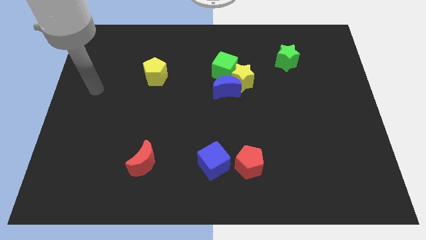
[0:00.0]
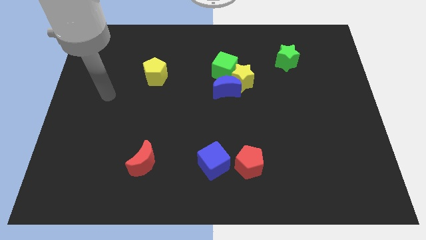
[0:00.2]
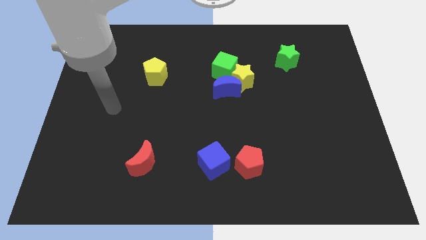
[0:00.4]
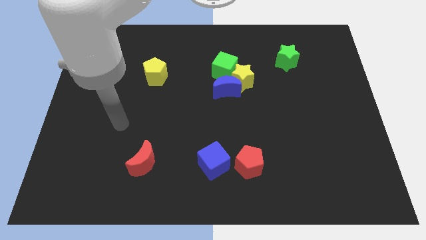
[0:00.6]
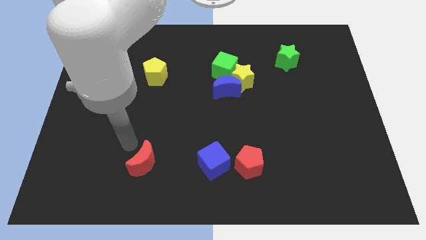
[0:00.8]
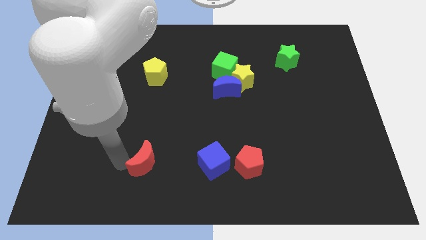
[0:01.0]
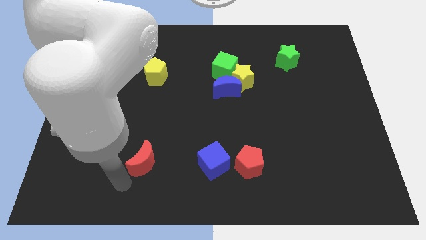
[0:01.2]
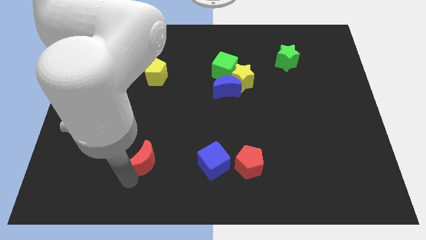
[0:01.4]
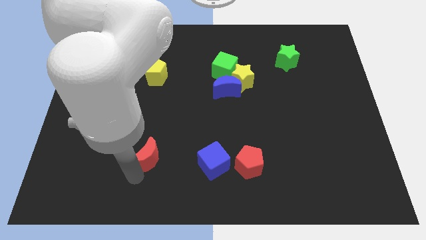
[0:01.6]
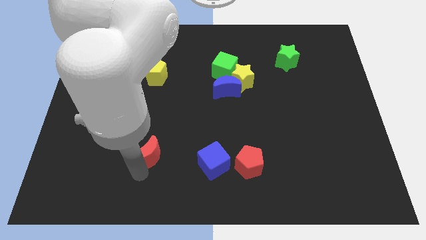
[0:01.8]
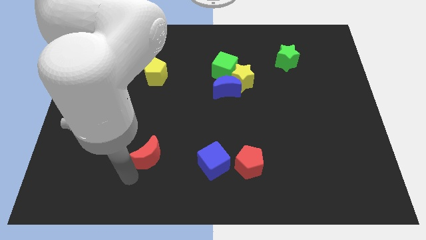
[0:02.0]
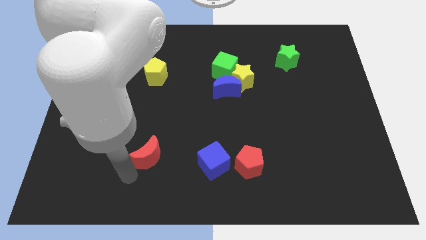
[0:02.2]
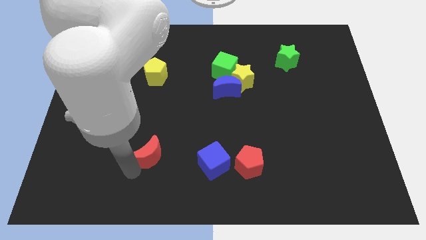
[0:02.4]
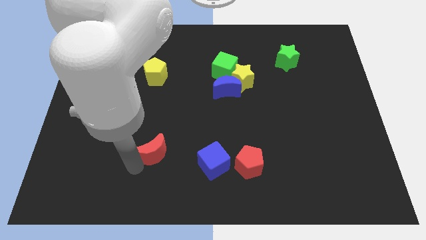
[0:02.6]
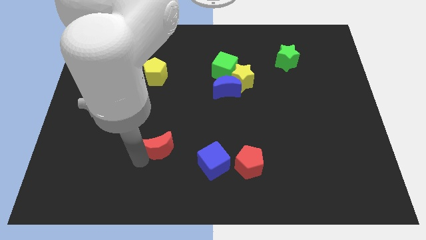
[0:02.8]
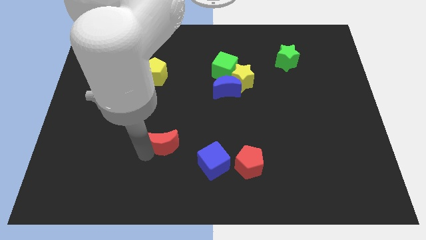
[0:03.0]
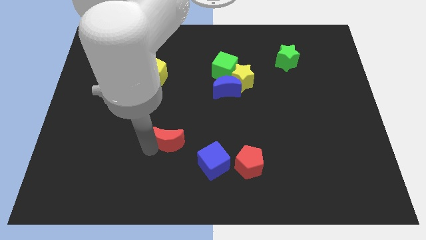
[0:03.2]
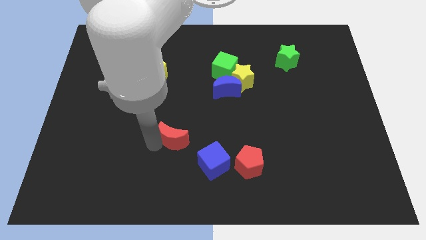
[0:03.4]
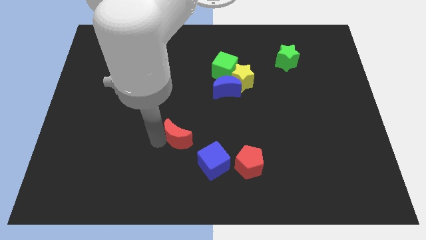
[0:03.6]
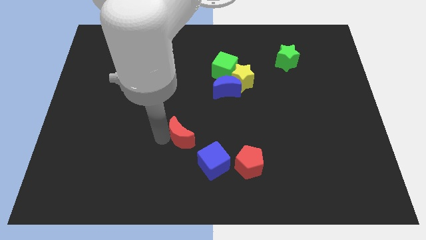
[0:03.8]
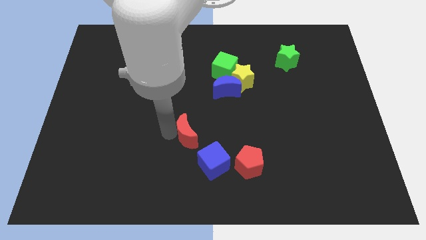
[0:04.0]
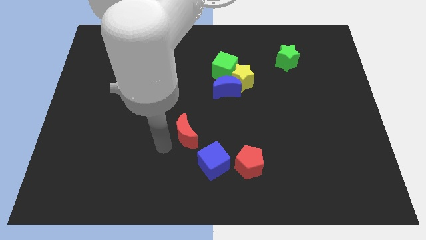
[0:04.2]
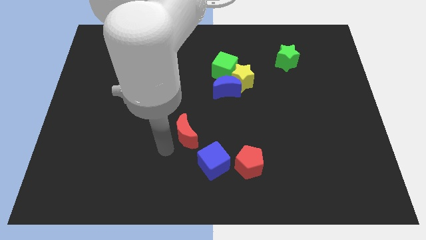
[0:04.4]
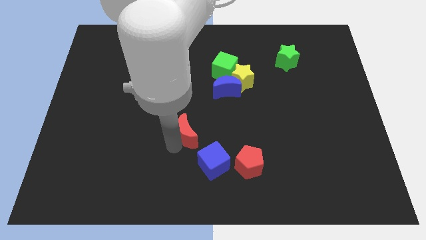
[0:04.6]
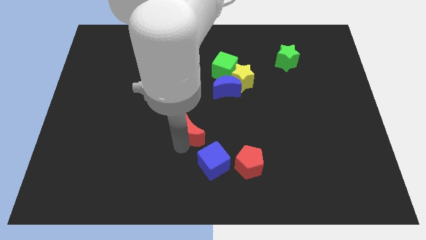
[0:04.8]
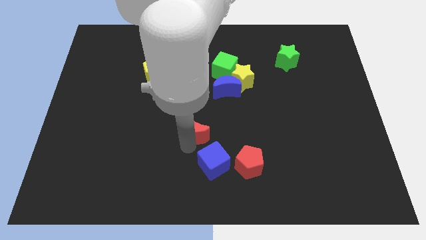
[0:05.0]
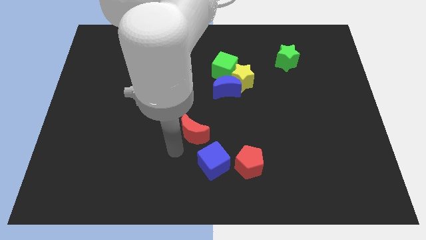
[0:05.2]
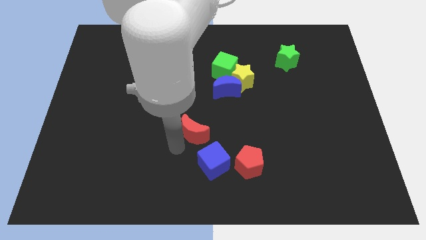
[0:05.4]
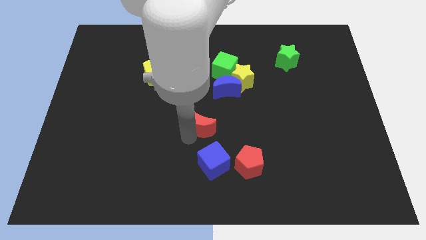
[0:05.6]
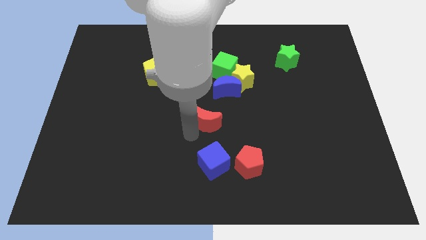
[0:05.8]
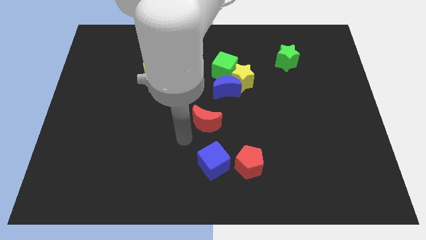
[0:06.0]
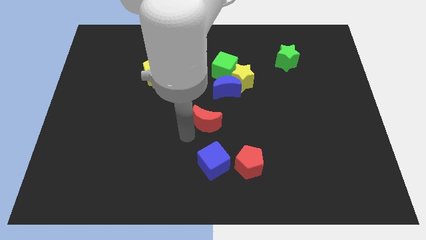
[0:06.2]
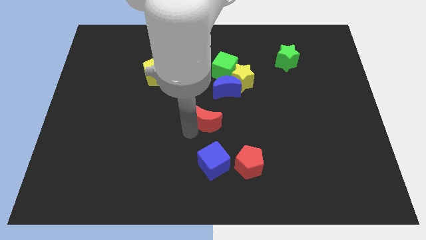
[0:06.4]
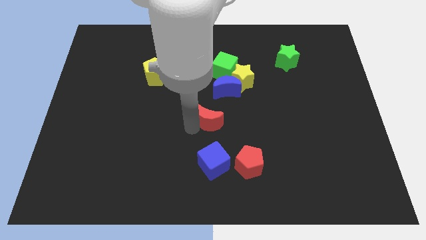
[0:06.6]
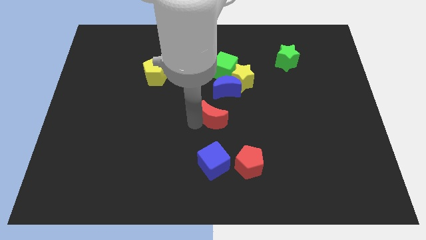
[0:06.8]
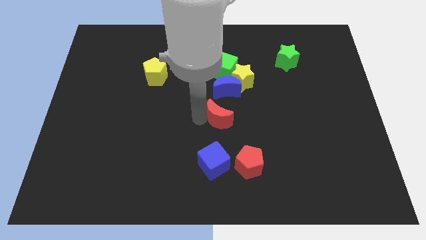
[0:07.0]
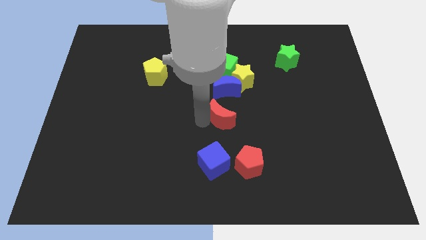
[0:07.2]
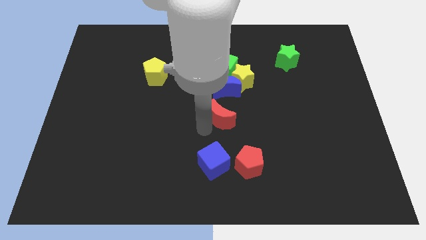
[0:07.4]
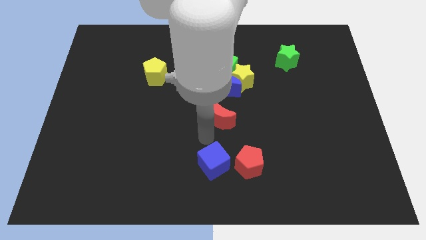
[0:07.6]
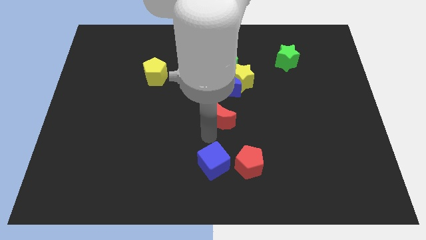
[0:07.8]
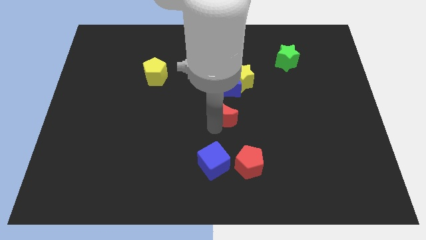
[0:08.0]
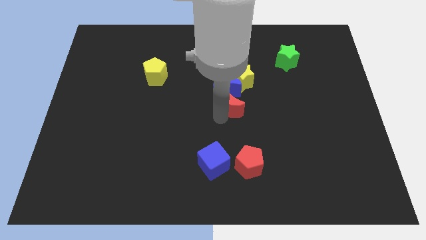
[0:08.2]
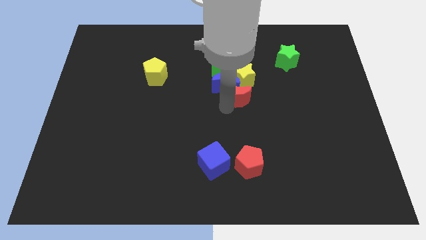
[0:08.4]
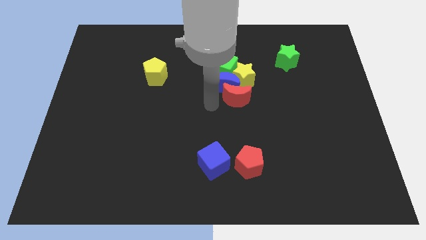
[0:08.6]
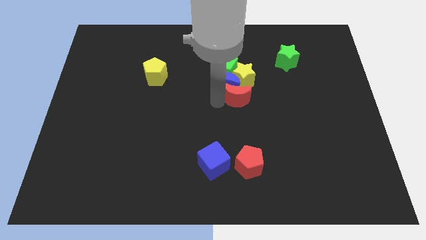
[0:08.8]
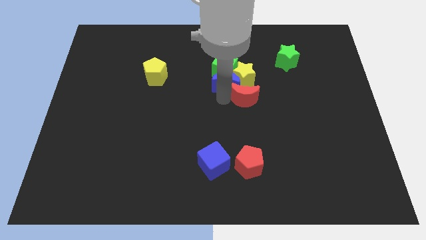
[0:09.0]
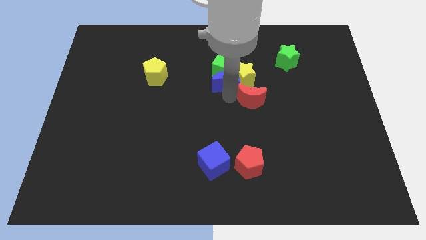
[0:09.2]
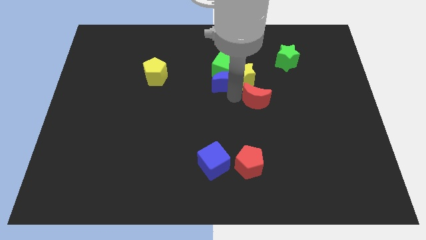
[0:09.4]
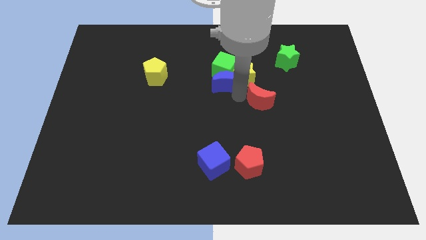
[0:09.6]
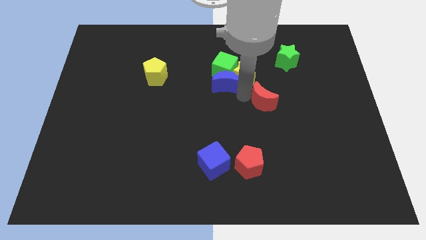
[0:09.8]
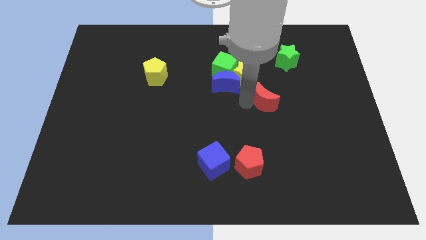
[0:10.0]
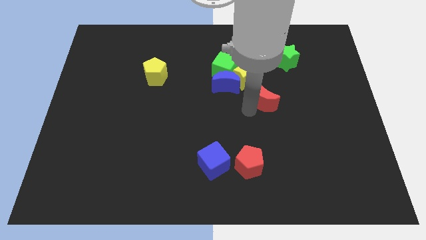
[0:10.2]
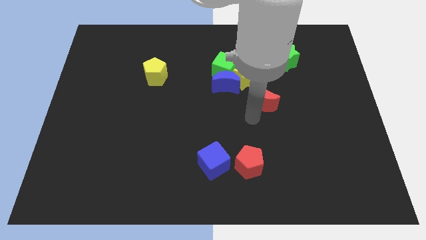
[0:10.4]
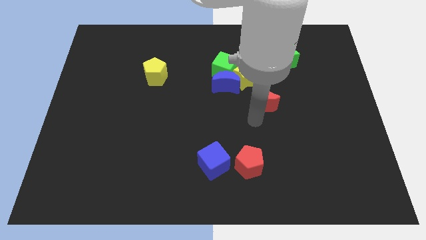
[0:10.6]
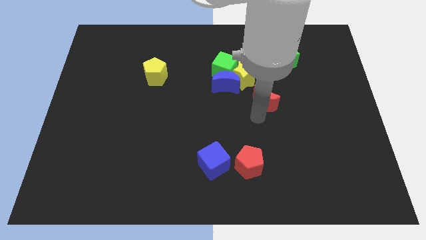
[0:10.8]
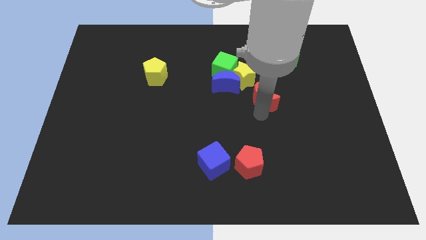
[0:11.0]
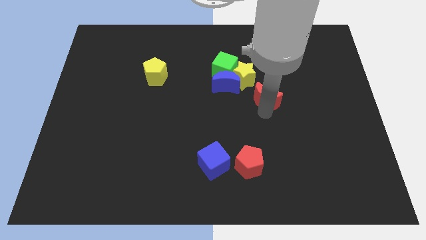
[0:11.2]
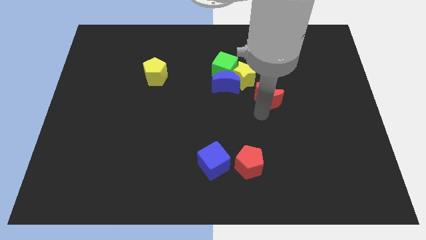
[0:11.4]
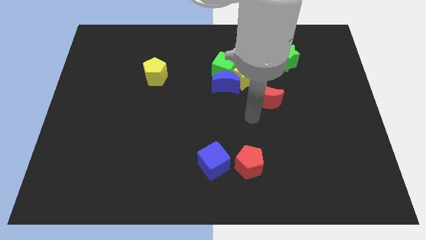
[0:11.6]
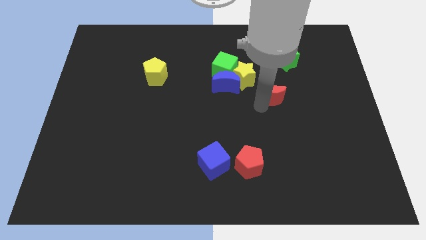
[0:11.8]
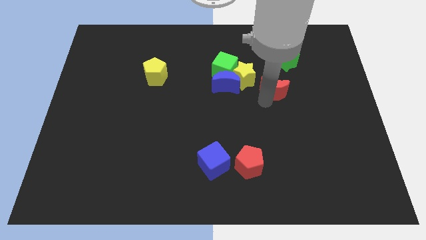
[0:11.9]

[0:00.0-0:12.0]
move the red moon to the right of the yellow star

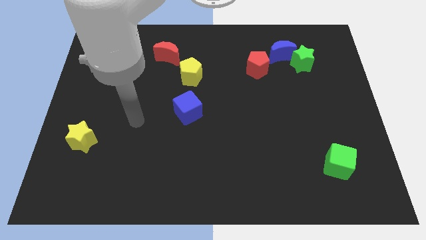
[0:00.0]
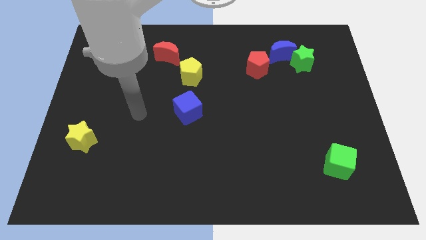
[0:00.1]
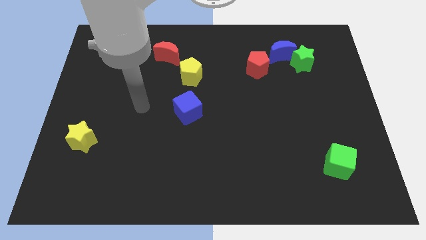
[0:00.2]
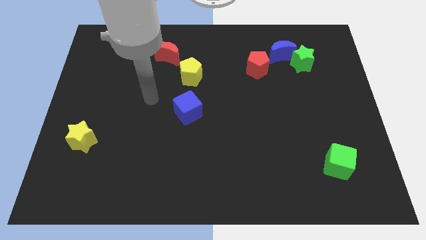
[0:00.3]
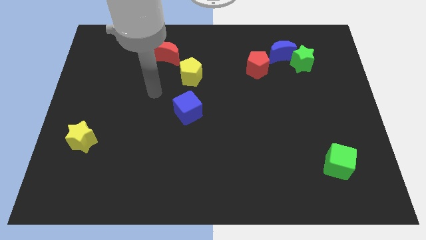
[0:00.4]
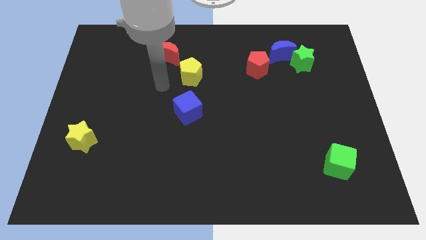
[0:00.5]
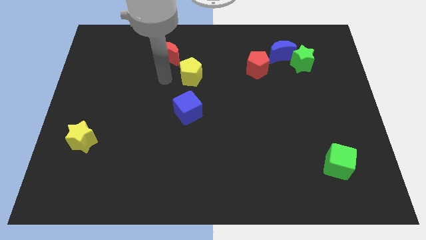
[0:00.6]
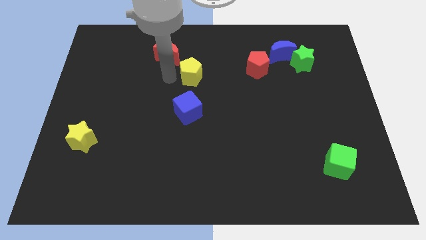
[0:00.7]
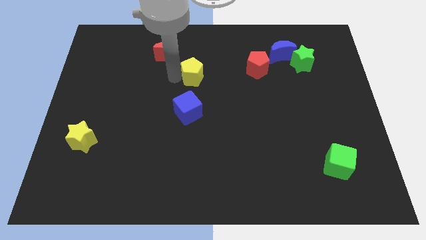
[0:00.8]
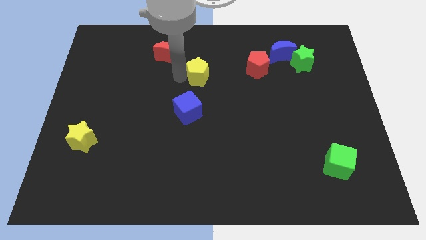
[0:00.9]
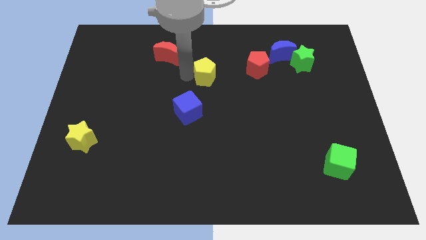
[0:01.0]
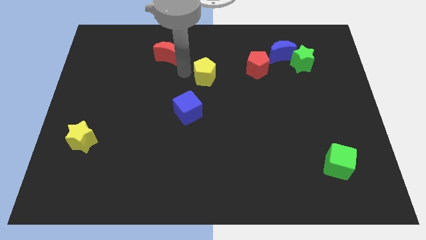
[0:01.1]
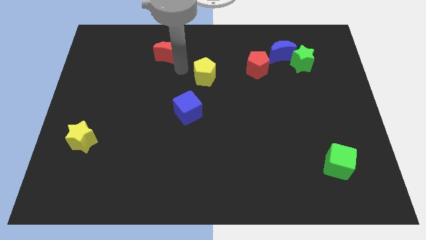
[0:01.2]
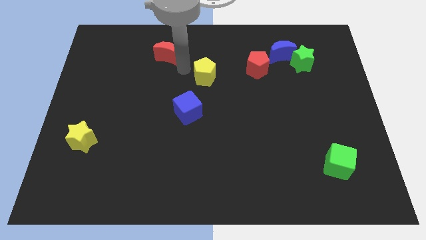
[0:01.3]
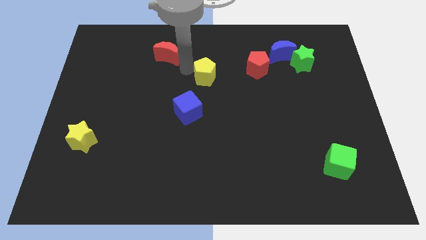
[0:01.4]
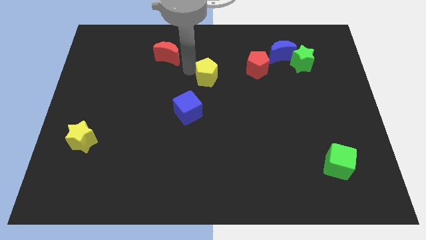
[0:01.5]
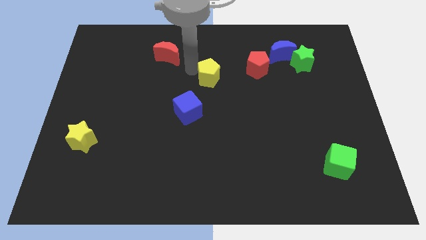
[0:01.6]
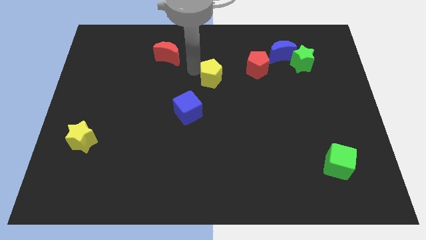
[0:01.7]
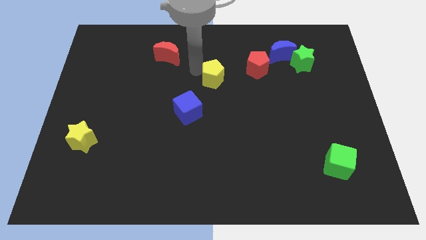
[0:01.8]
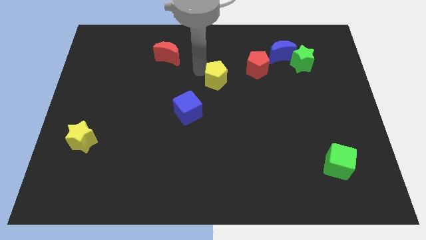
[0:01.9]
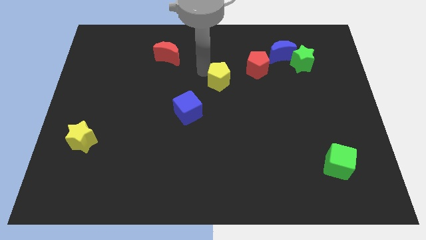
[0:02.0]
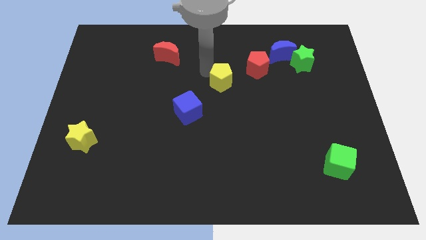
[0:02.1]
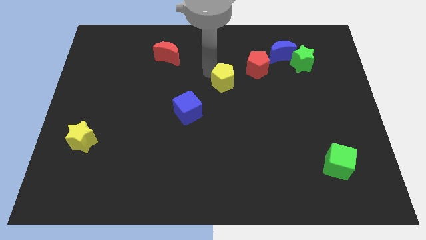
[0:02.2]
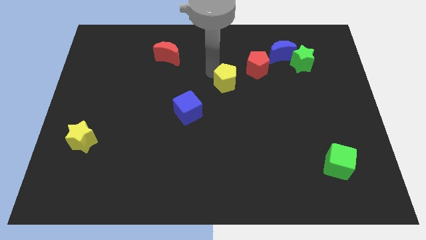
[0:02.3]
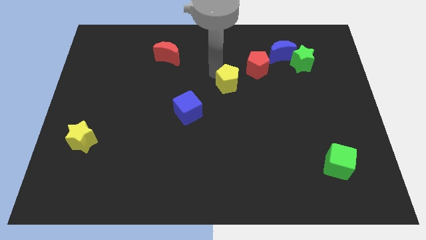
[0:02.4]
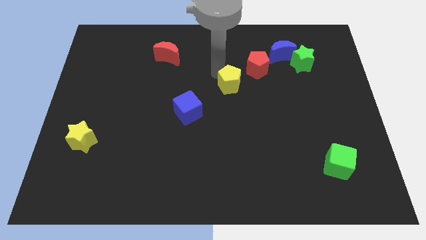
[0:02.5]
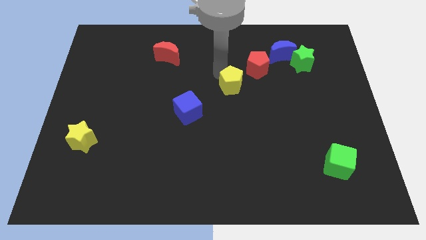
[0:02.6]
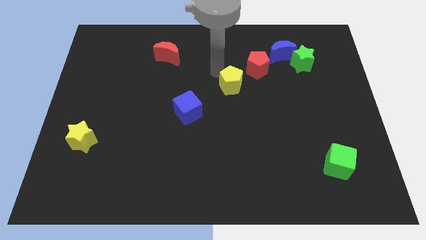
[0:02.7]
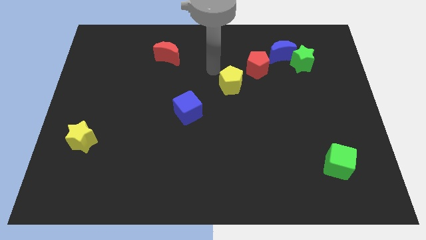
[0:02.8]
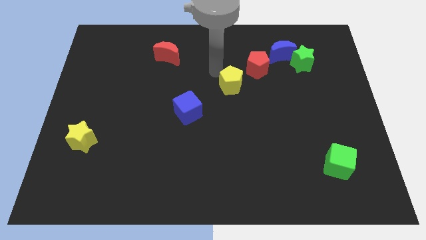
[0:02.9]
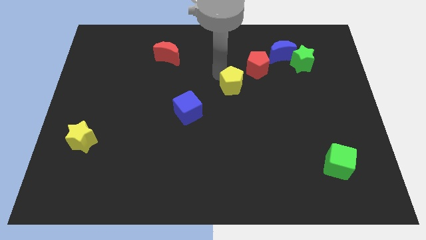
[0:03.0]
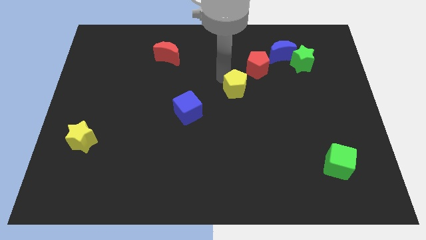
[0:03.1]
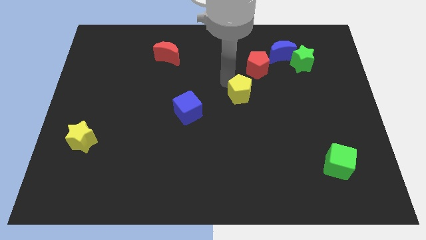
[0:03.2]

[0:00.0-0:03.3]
slide the yellow pentagon to the bottom side of the red pentagon
